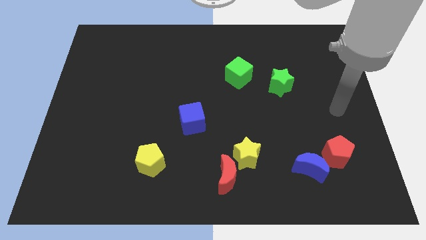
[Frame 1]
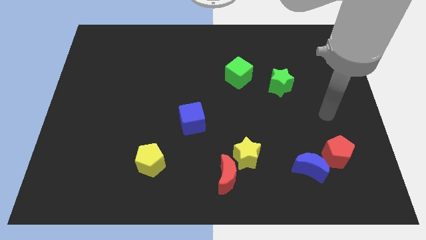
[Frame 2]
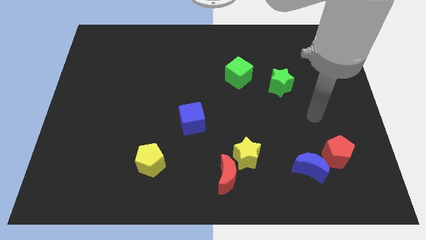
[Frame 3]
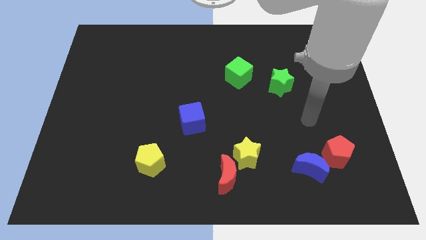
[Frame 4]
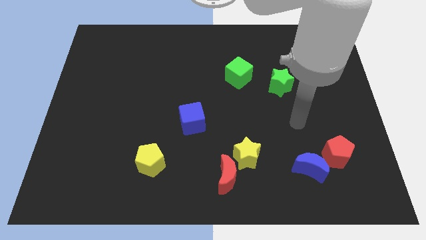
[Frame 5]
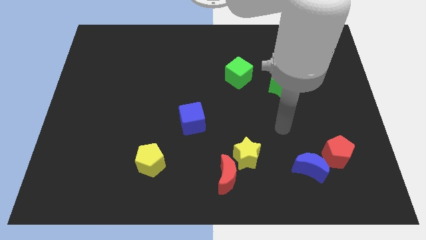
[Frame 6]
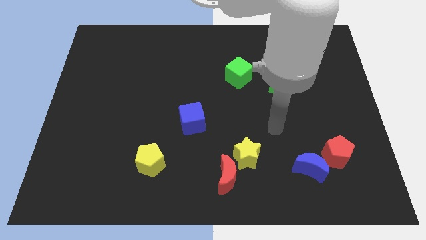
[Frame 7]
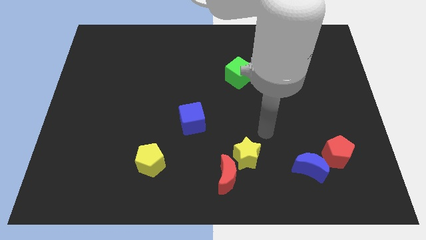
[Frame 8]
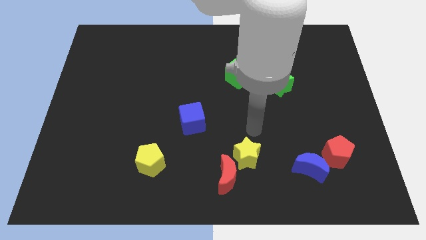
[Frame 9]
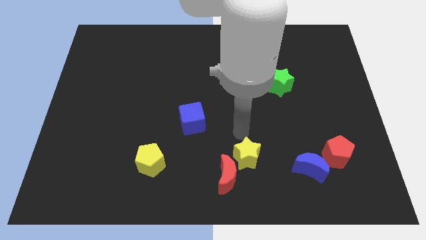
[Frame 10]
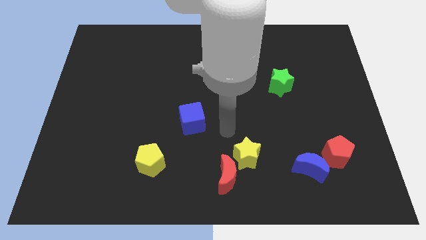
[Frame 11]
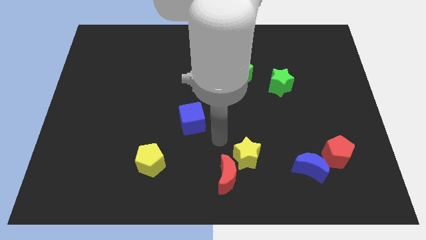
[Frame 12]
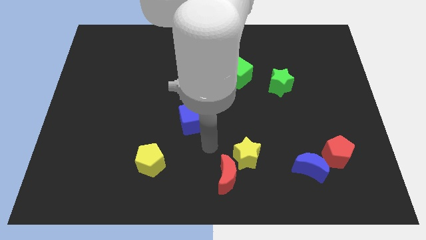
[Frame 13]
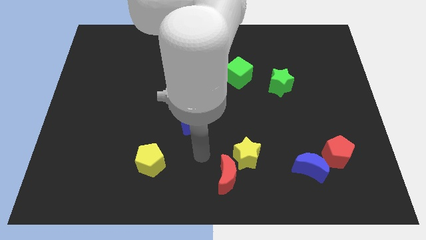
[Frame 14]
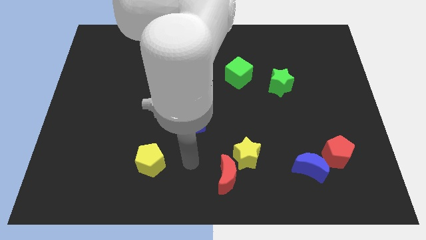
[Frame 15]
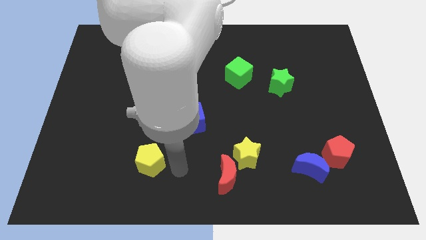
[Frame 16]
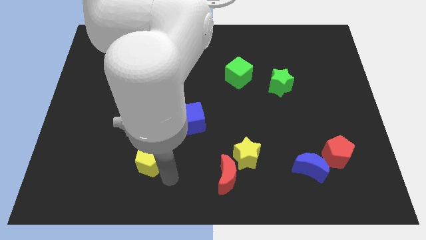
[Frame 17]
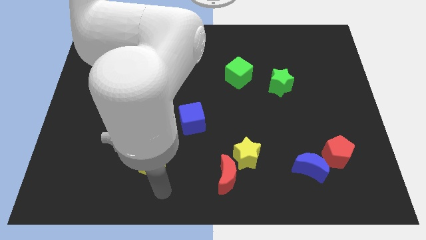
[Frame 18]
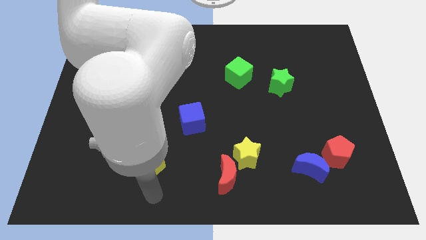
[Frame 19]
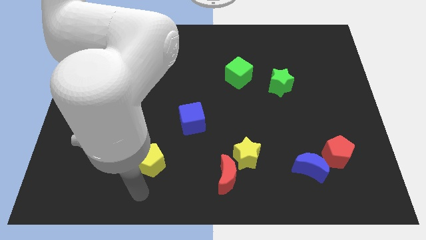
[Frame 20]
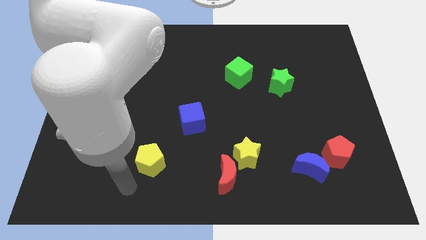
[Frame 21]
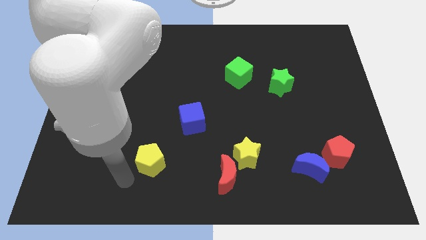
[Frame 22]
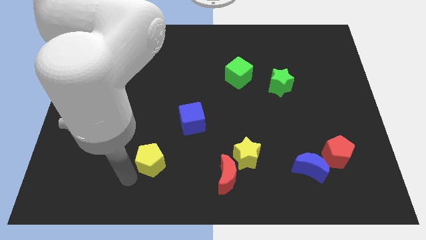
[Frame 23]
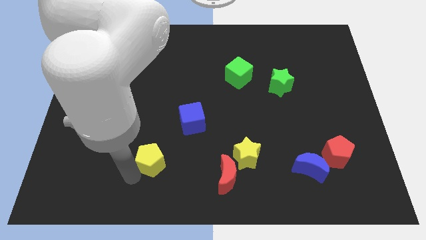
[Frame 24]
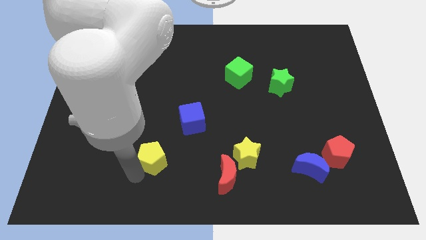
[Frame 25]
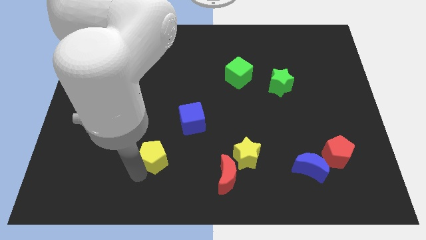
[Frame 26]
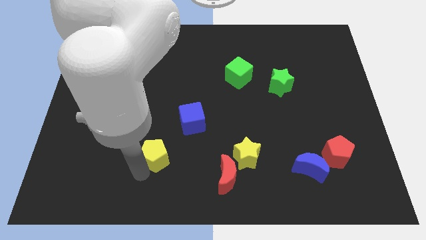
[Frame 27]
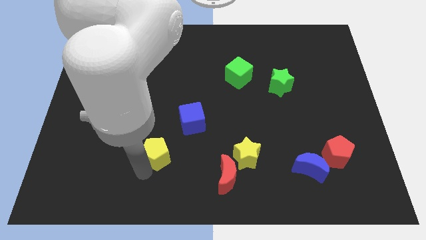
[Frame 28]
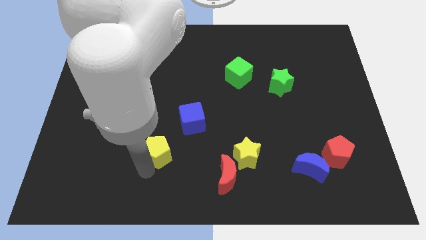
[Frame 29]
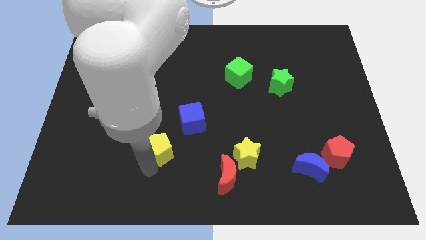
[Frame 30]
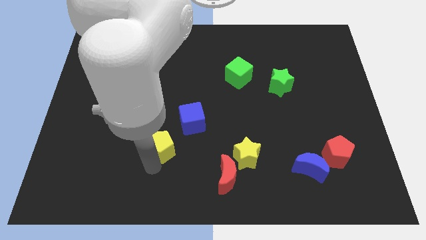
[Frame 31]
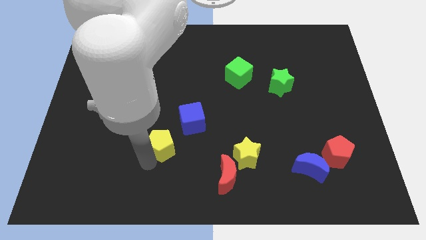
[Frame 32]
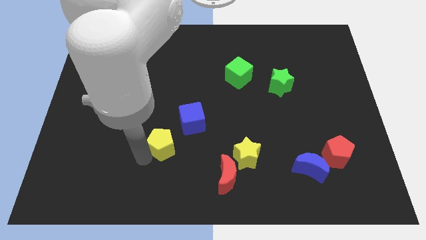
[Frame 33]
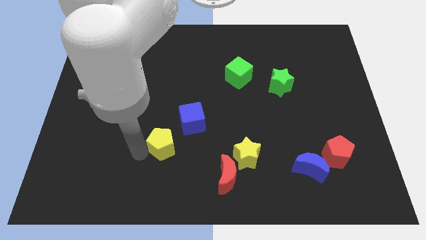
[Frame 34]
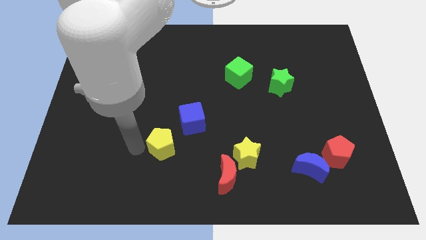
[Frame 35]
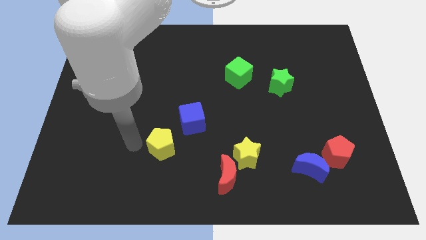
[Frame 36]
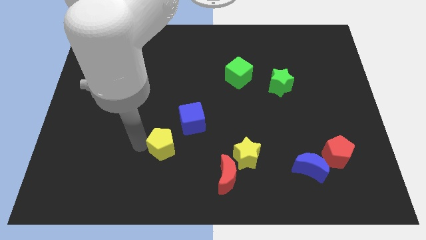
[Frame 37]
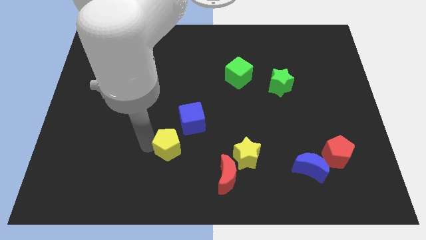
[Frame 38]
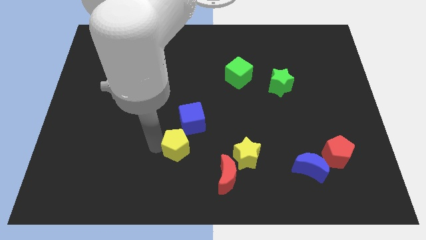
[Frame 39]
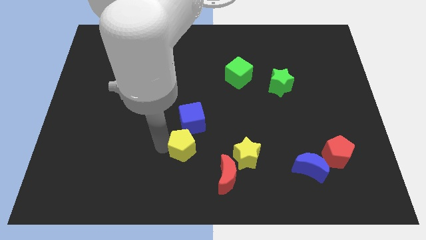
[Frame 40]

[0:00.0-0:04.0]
slightly move the yellow pentagon up and then to the right

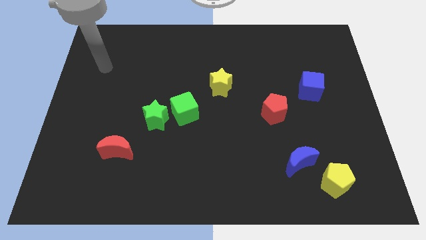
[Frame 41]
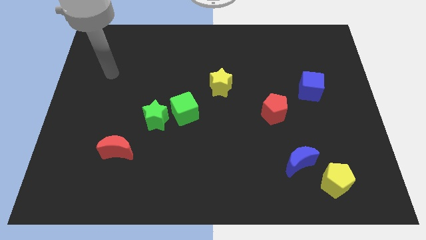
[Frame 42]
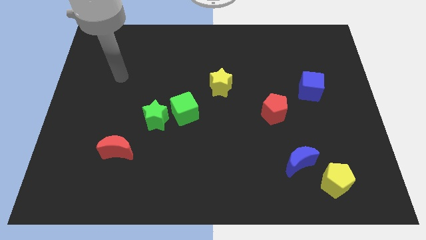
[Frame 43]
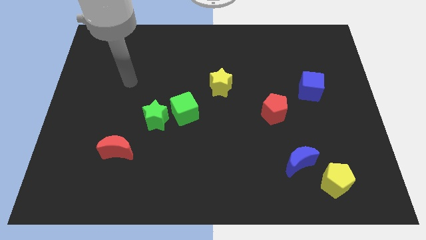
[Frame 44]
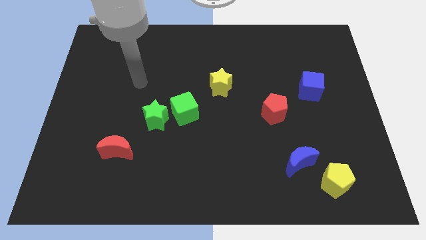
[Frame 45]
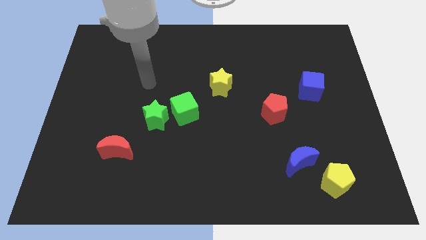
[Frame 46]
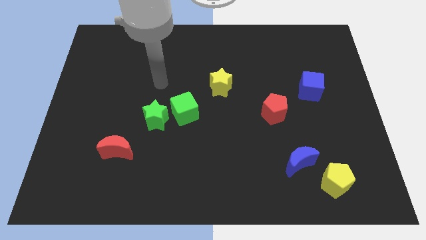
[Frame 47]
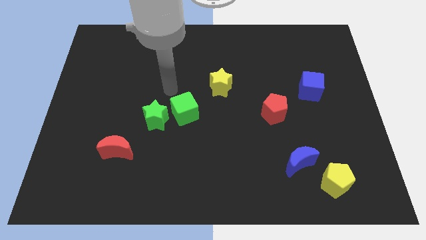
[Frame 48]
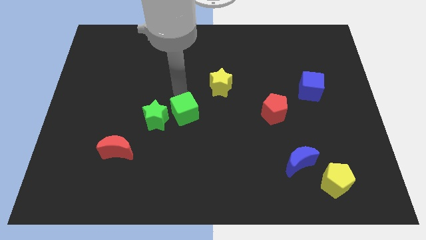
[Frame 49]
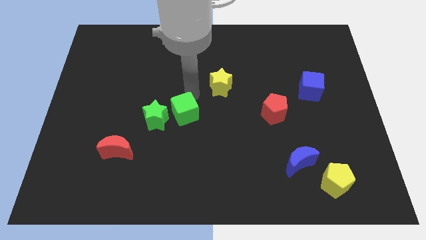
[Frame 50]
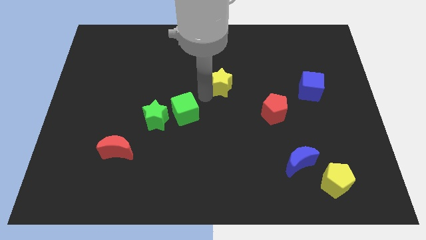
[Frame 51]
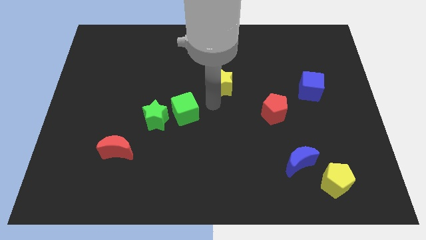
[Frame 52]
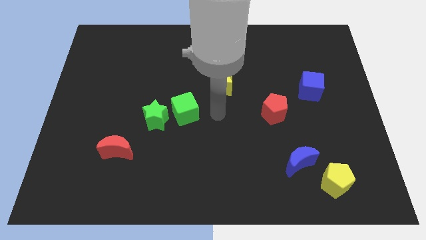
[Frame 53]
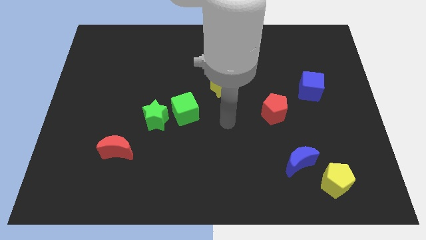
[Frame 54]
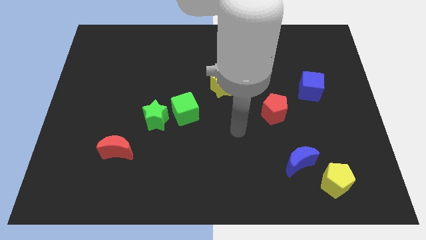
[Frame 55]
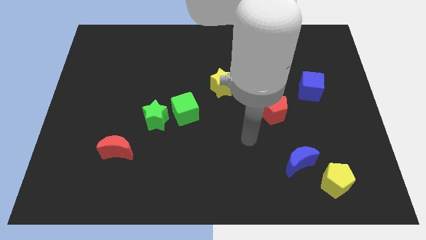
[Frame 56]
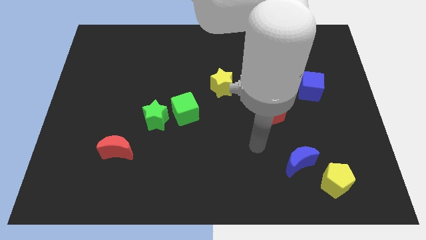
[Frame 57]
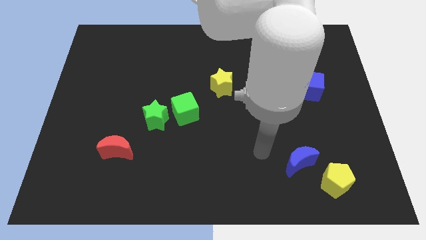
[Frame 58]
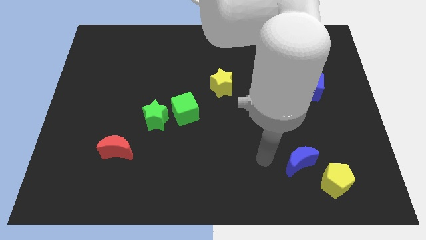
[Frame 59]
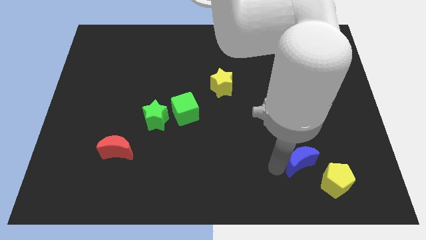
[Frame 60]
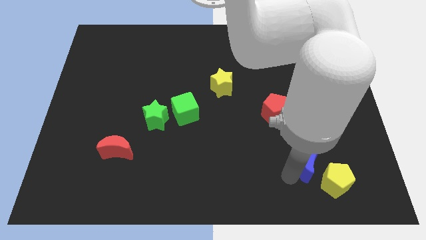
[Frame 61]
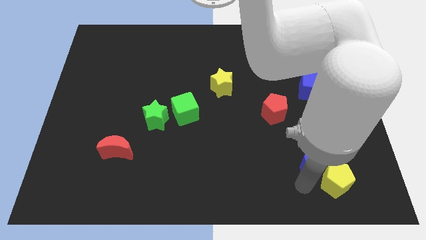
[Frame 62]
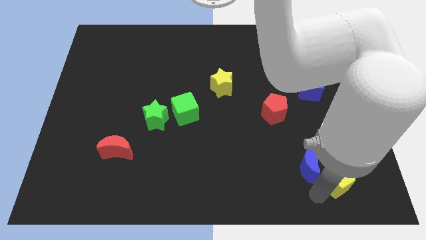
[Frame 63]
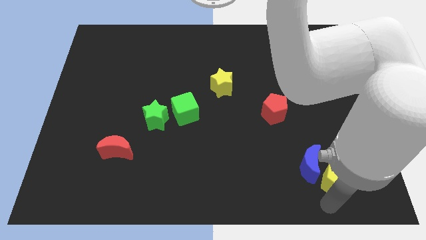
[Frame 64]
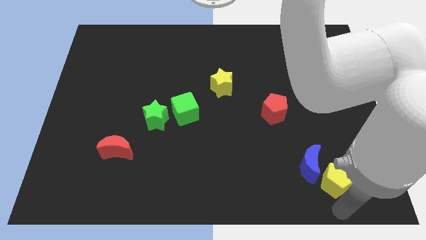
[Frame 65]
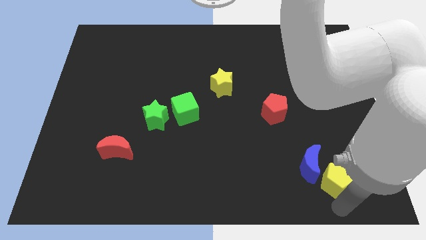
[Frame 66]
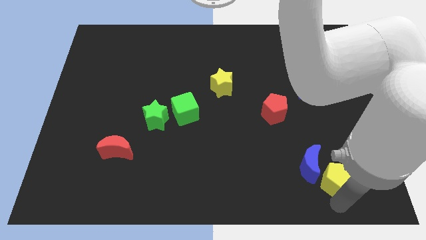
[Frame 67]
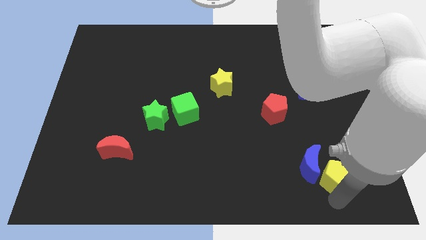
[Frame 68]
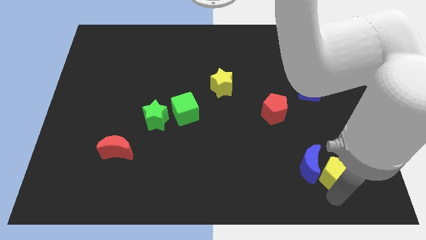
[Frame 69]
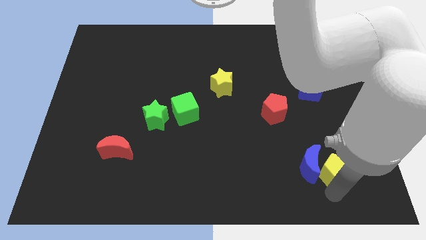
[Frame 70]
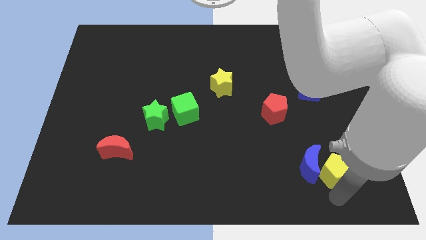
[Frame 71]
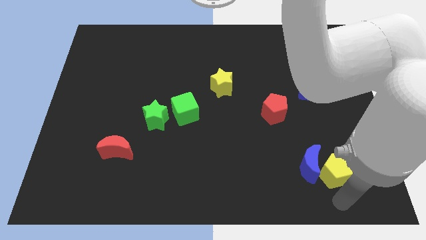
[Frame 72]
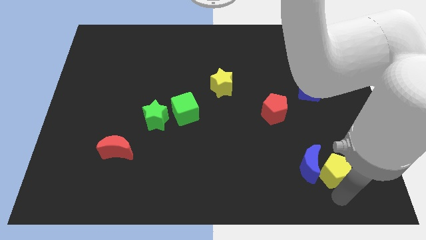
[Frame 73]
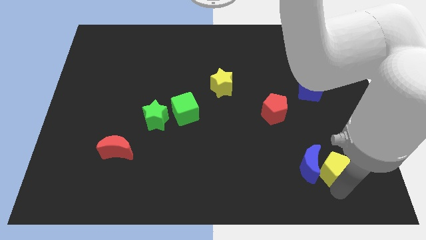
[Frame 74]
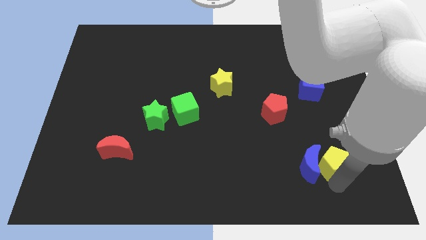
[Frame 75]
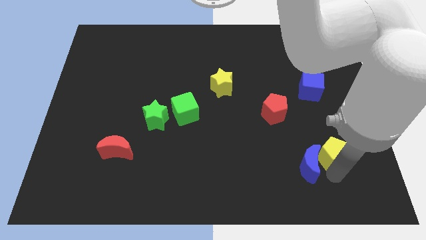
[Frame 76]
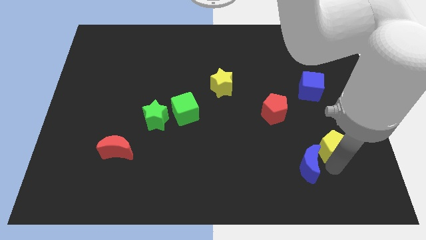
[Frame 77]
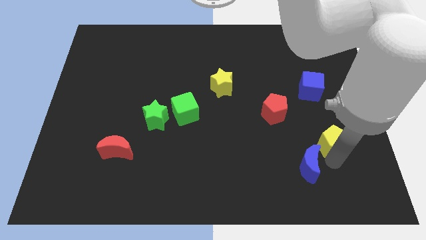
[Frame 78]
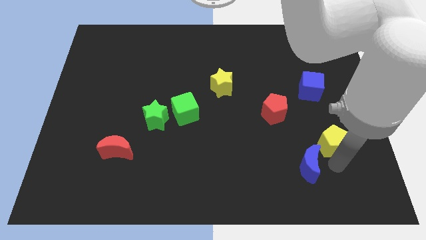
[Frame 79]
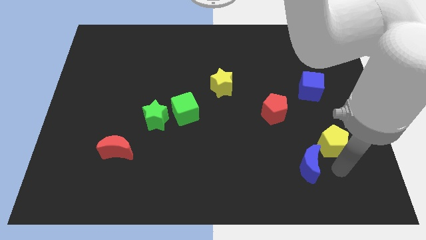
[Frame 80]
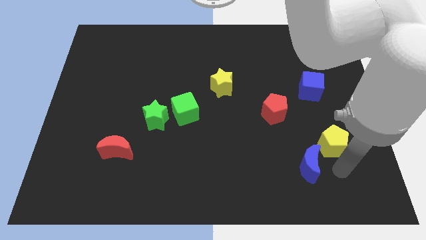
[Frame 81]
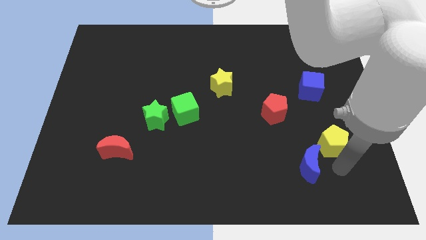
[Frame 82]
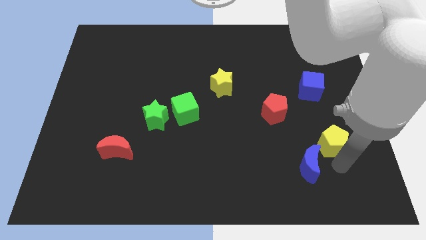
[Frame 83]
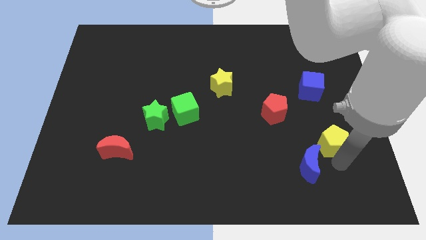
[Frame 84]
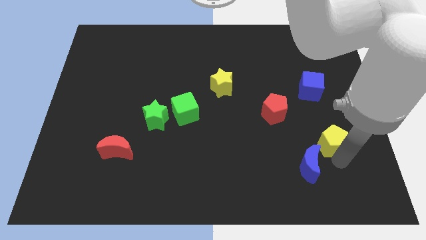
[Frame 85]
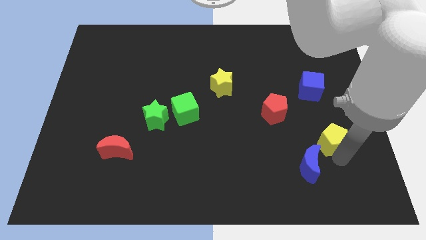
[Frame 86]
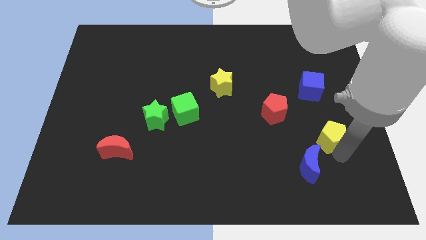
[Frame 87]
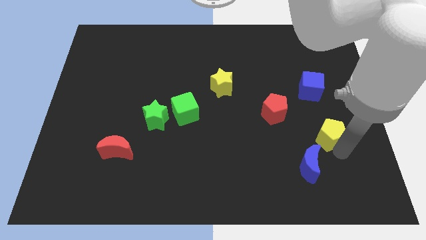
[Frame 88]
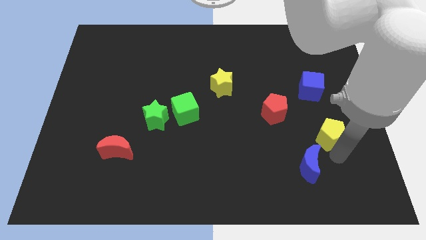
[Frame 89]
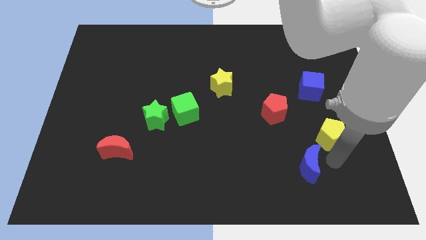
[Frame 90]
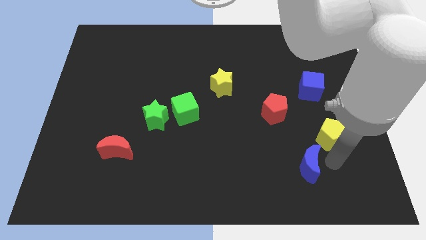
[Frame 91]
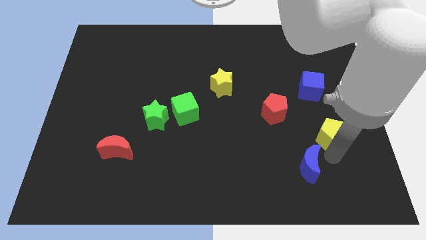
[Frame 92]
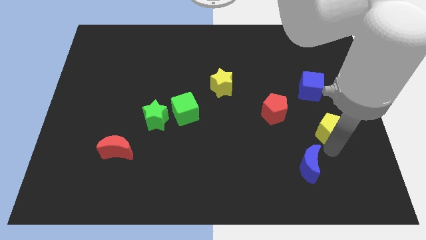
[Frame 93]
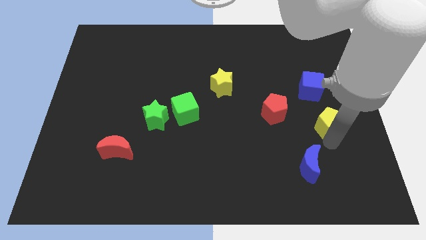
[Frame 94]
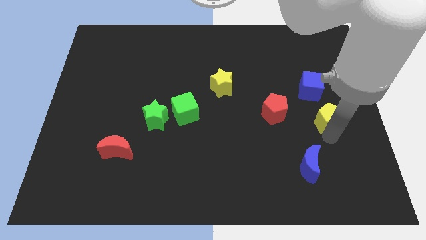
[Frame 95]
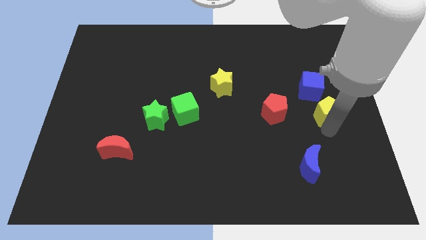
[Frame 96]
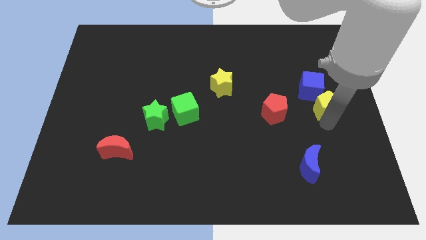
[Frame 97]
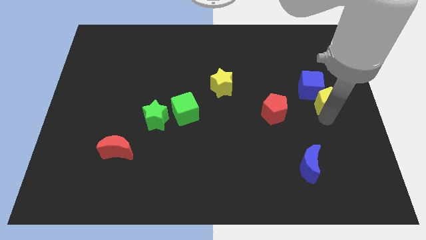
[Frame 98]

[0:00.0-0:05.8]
push the yellow pentagon up
